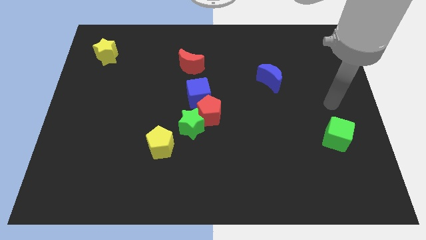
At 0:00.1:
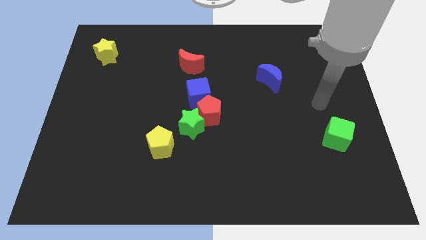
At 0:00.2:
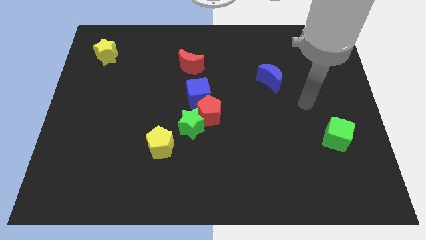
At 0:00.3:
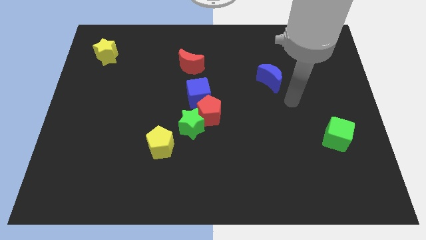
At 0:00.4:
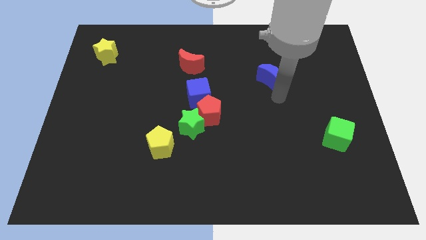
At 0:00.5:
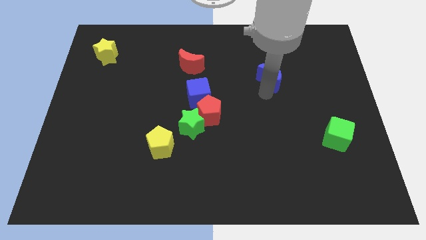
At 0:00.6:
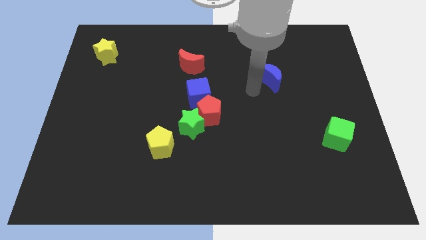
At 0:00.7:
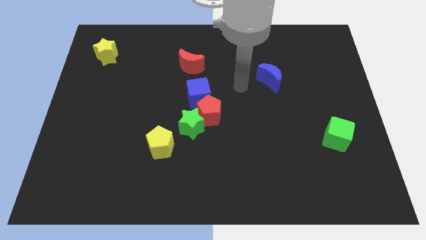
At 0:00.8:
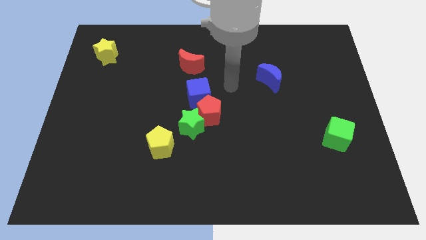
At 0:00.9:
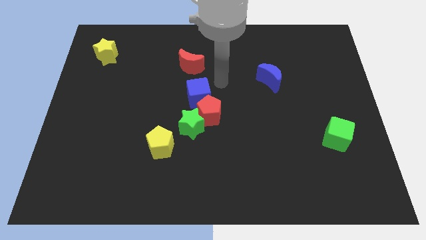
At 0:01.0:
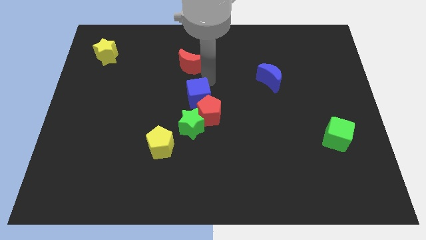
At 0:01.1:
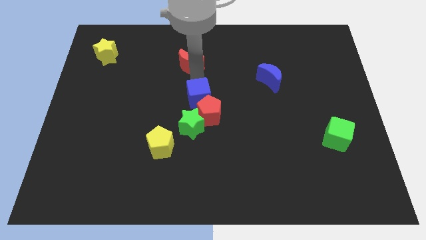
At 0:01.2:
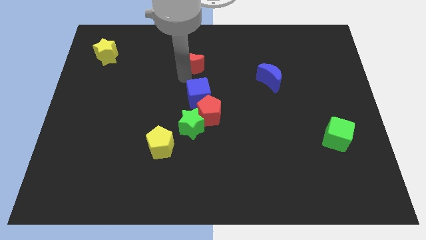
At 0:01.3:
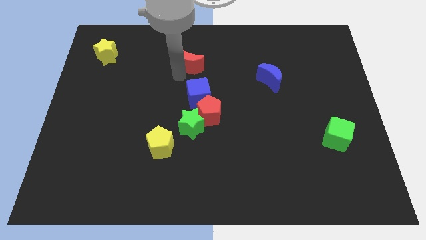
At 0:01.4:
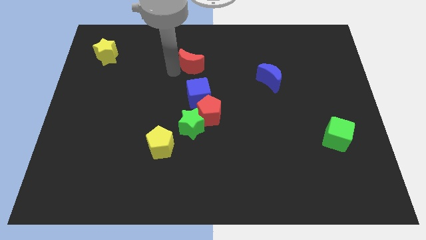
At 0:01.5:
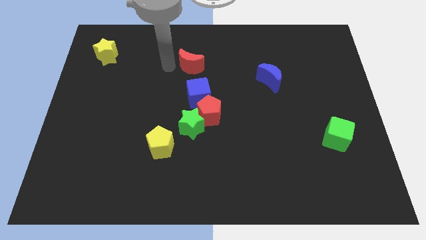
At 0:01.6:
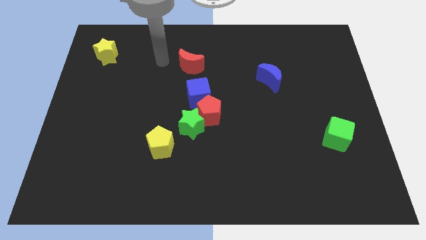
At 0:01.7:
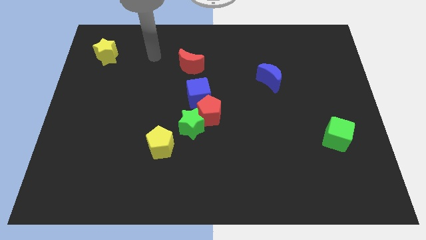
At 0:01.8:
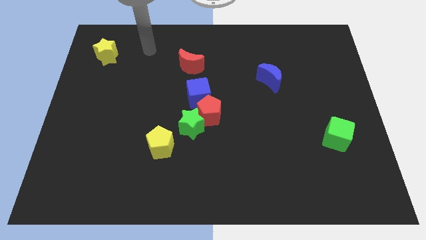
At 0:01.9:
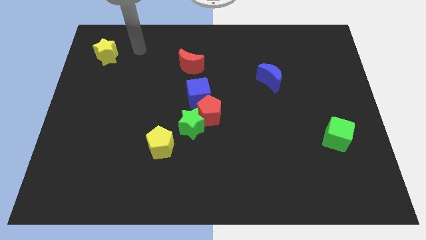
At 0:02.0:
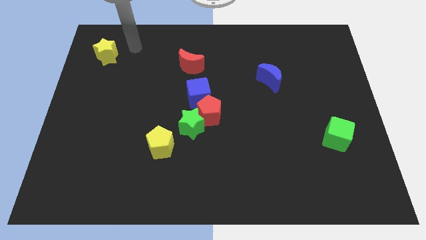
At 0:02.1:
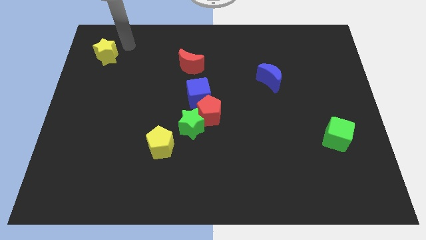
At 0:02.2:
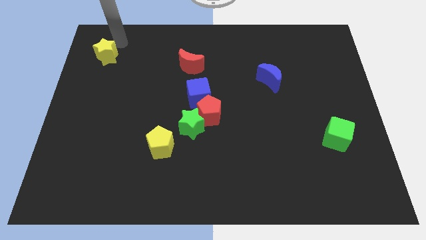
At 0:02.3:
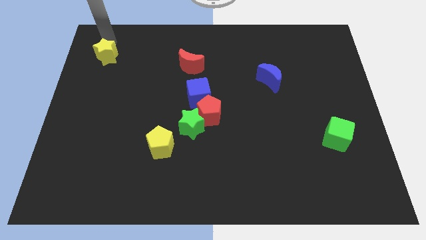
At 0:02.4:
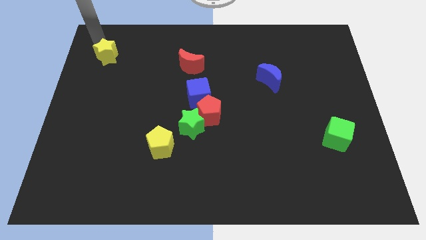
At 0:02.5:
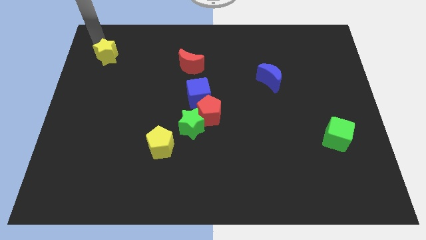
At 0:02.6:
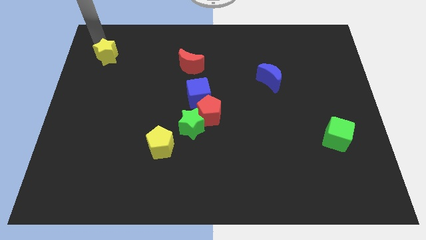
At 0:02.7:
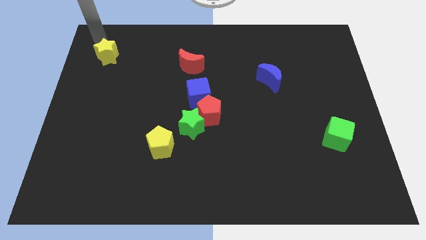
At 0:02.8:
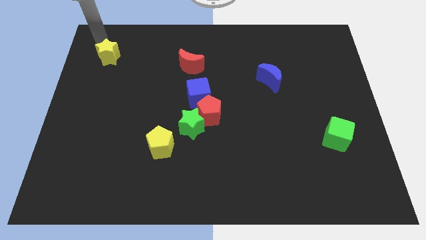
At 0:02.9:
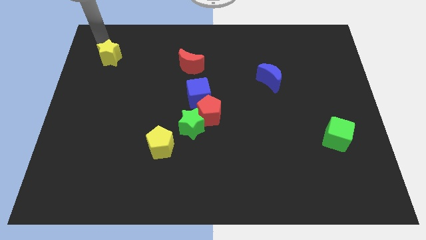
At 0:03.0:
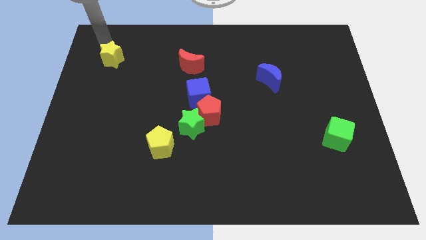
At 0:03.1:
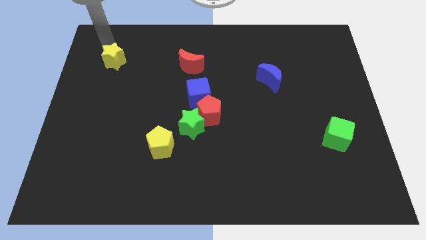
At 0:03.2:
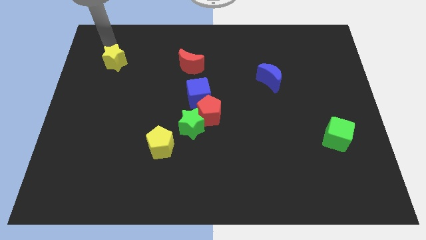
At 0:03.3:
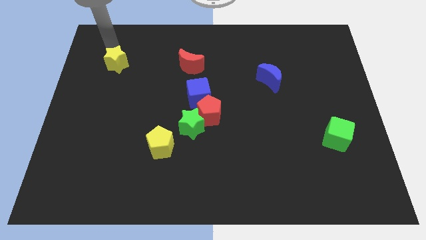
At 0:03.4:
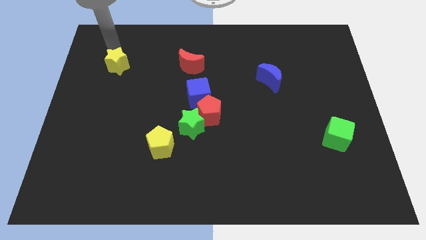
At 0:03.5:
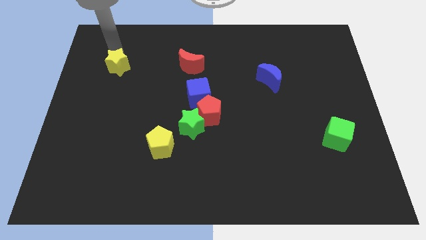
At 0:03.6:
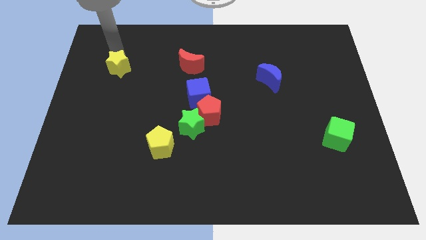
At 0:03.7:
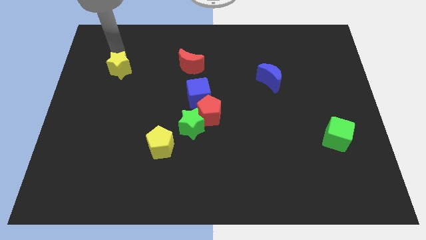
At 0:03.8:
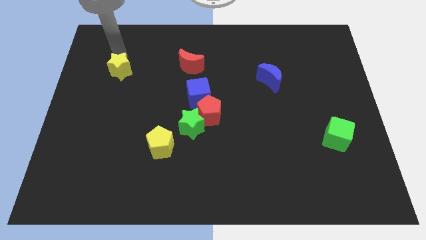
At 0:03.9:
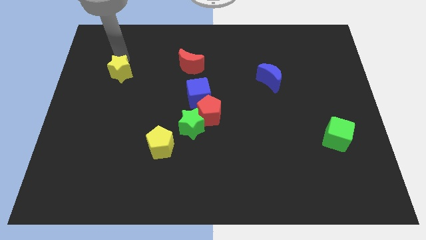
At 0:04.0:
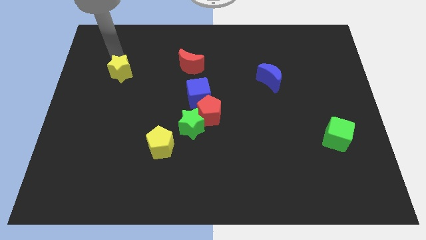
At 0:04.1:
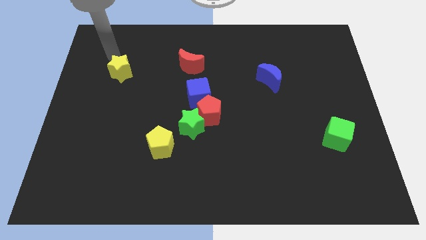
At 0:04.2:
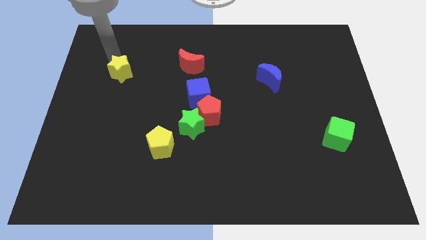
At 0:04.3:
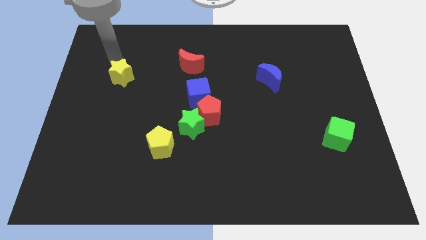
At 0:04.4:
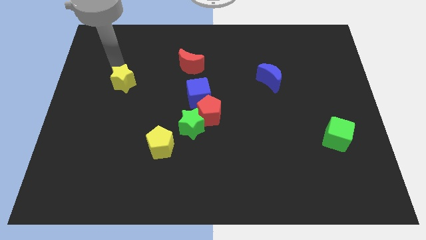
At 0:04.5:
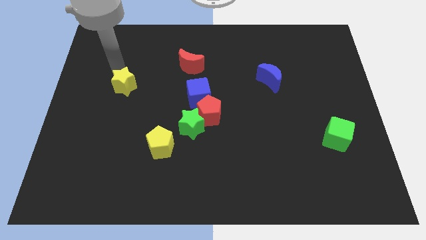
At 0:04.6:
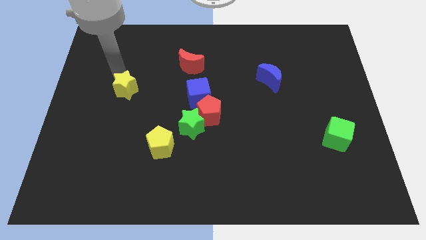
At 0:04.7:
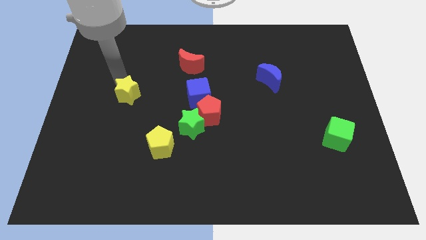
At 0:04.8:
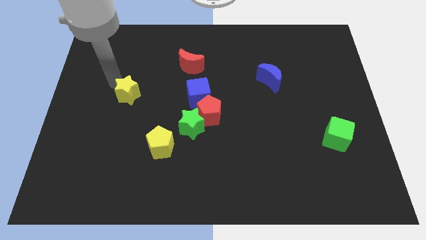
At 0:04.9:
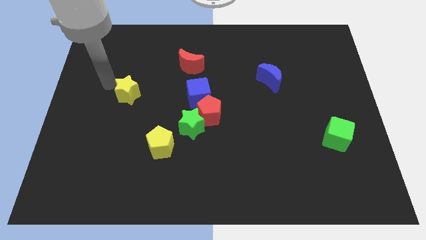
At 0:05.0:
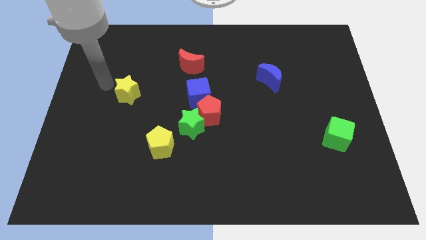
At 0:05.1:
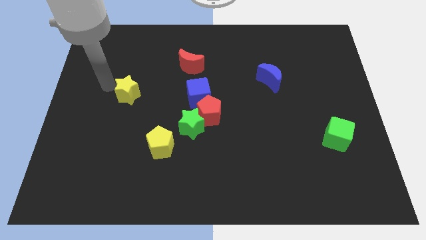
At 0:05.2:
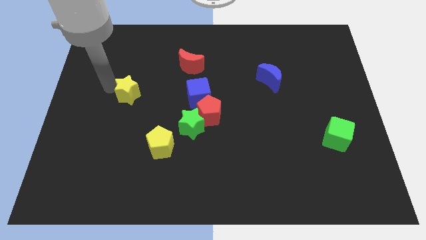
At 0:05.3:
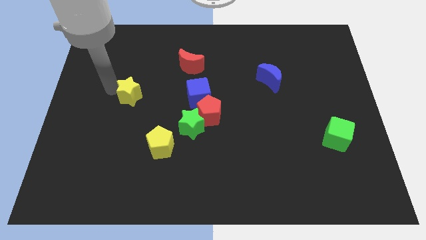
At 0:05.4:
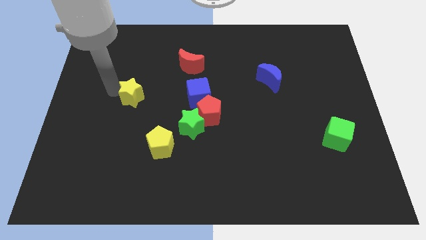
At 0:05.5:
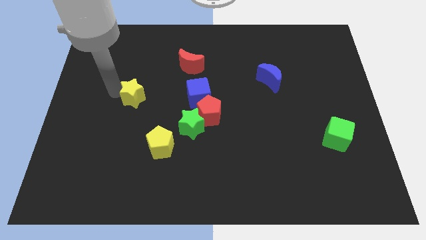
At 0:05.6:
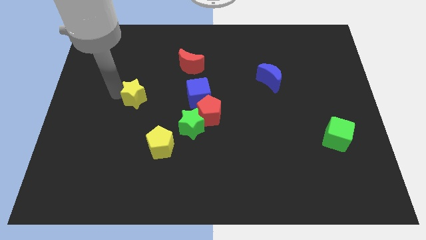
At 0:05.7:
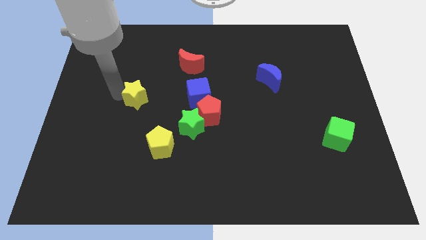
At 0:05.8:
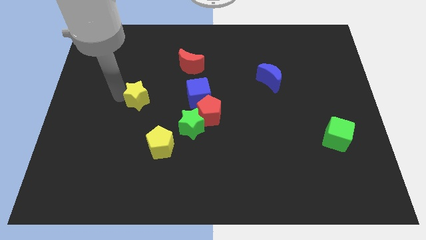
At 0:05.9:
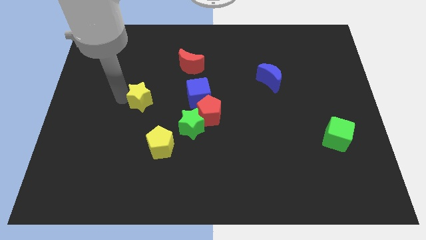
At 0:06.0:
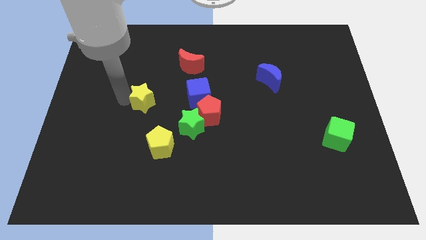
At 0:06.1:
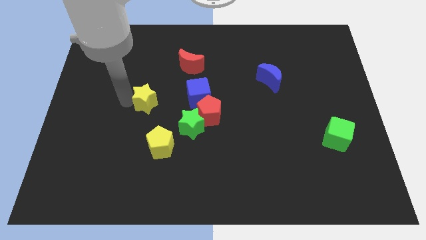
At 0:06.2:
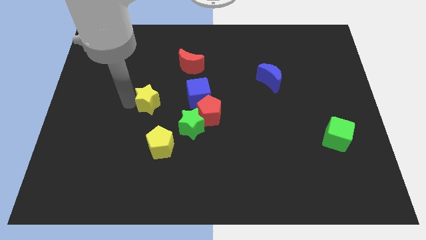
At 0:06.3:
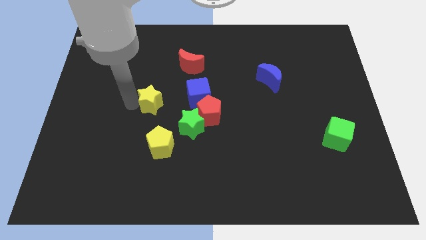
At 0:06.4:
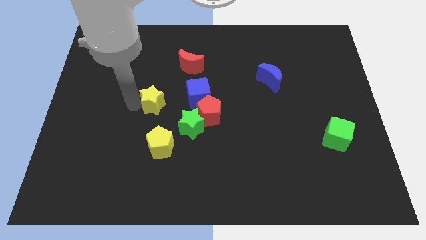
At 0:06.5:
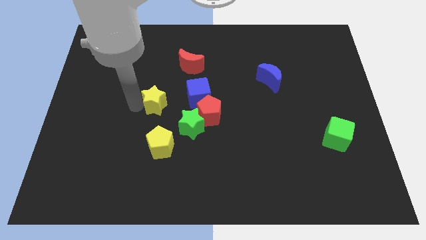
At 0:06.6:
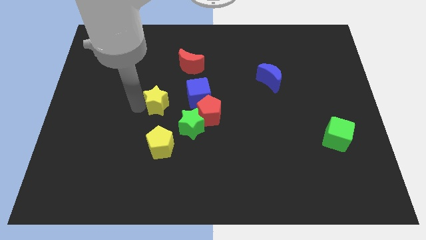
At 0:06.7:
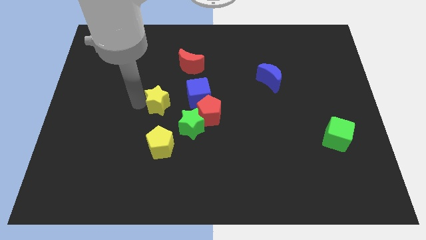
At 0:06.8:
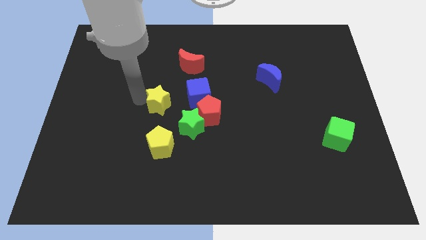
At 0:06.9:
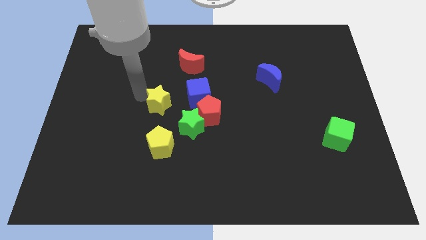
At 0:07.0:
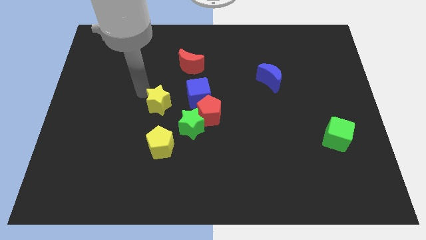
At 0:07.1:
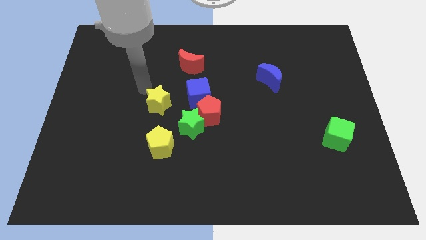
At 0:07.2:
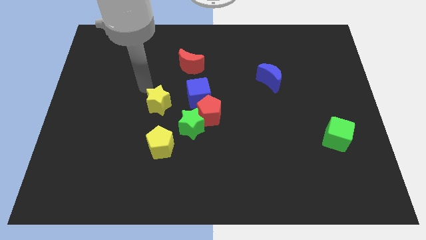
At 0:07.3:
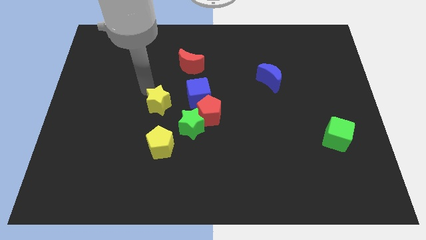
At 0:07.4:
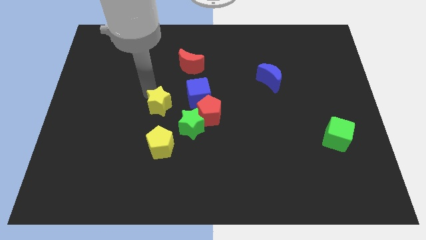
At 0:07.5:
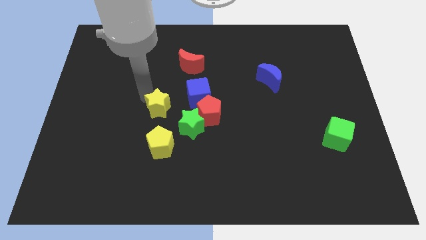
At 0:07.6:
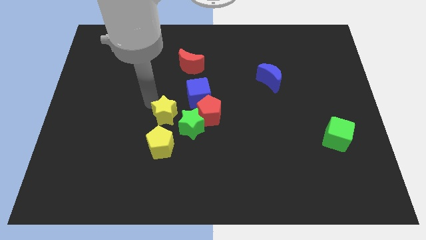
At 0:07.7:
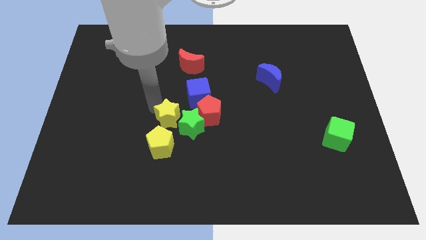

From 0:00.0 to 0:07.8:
slide the yellow star towards the green star
